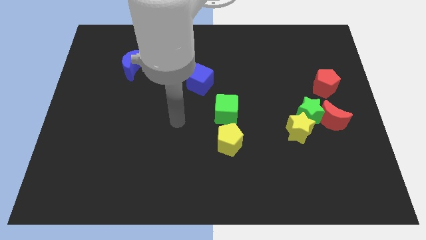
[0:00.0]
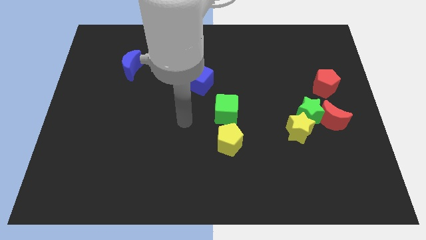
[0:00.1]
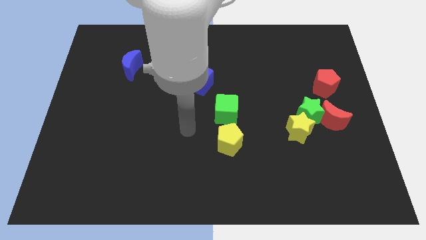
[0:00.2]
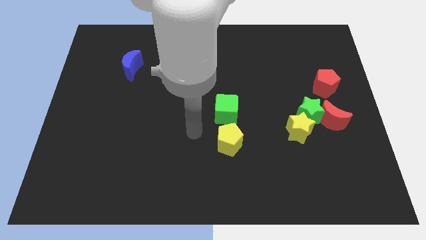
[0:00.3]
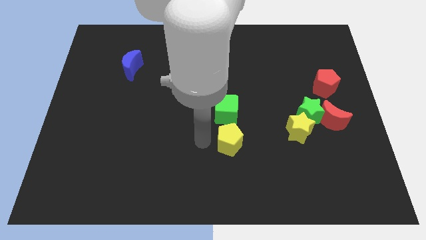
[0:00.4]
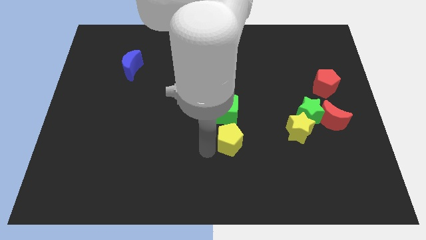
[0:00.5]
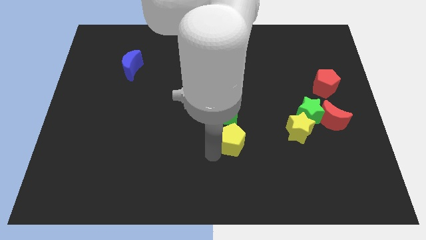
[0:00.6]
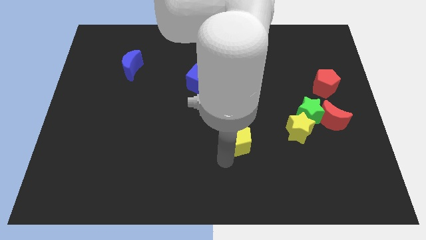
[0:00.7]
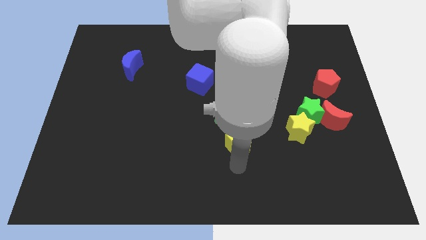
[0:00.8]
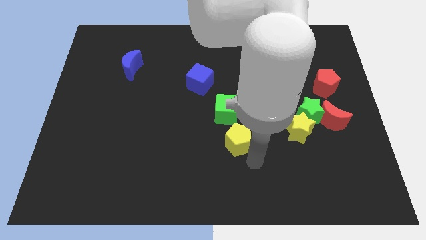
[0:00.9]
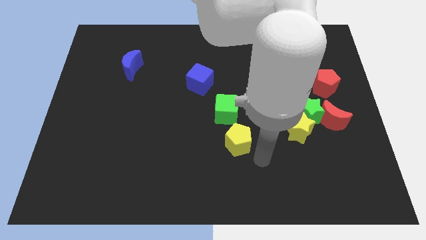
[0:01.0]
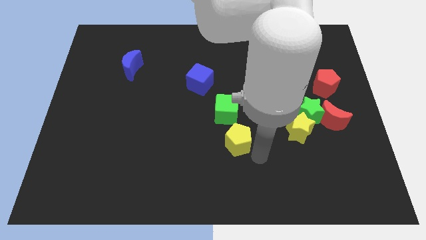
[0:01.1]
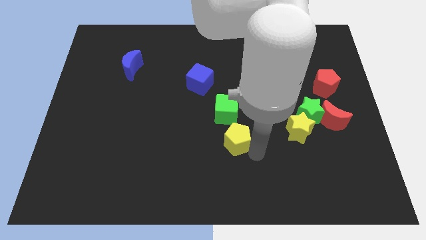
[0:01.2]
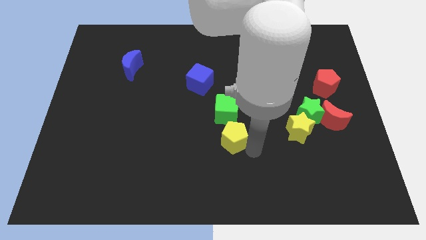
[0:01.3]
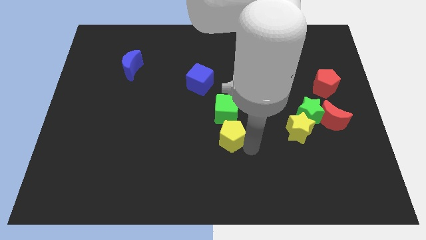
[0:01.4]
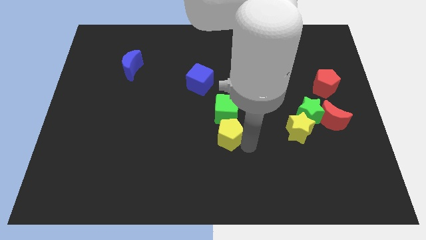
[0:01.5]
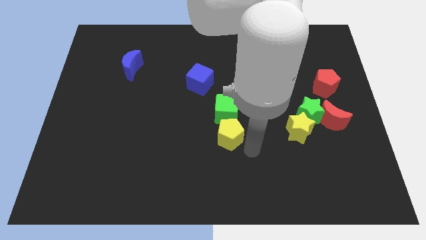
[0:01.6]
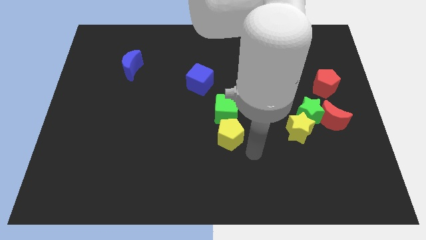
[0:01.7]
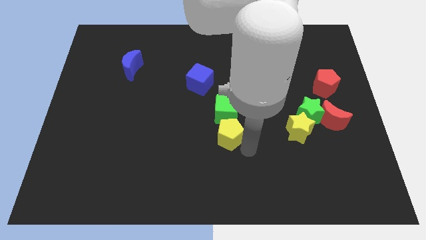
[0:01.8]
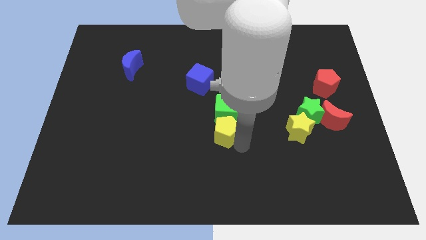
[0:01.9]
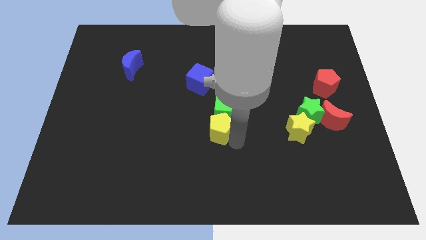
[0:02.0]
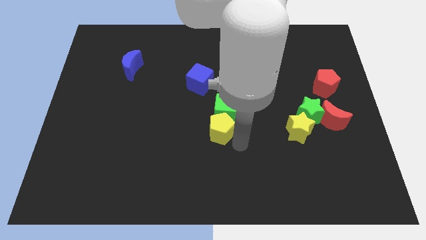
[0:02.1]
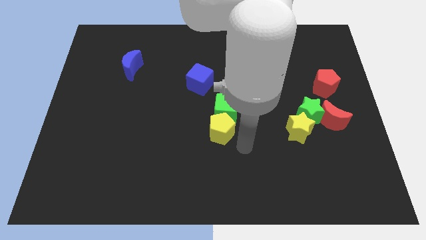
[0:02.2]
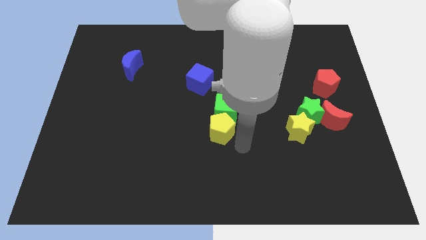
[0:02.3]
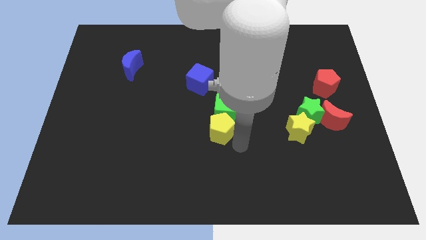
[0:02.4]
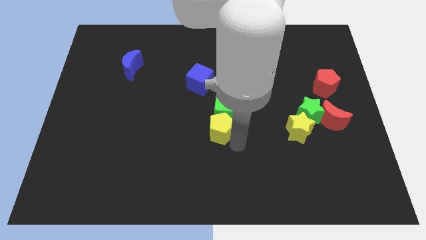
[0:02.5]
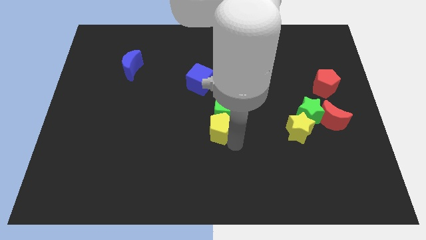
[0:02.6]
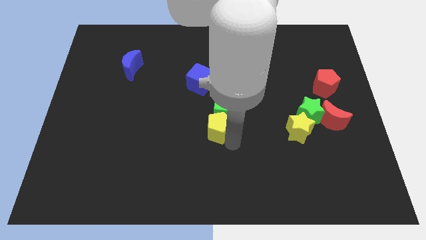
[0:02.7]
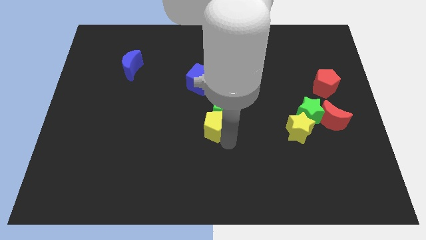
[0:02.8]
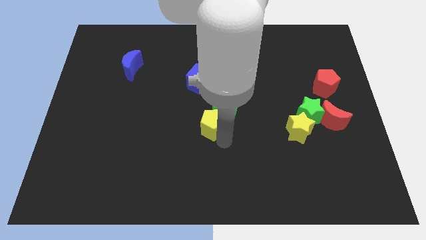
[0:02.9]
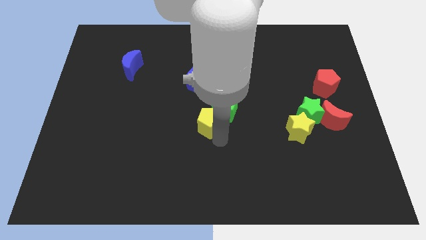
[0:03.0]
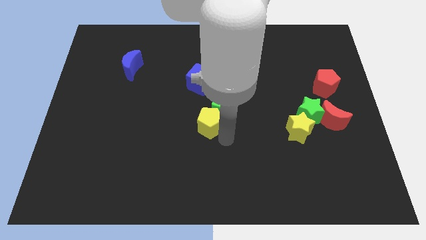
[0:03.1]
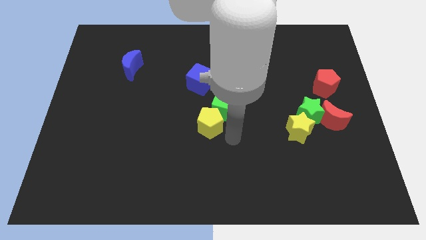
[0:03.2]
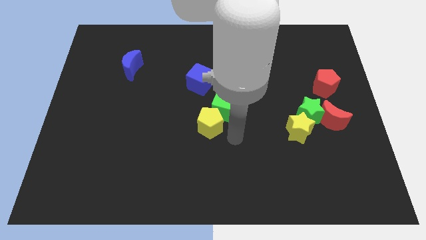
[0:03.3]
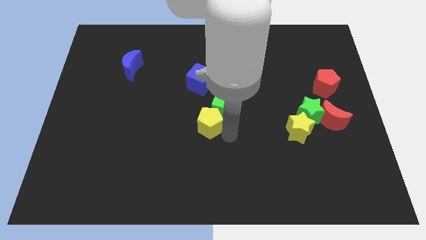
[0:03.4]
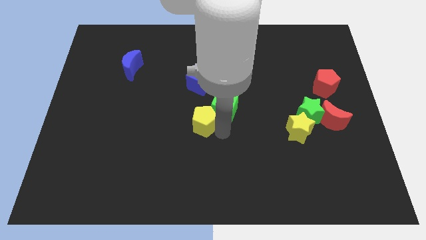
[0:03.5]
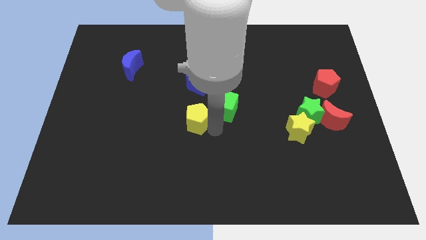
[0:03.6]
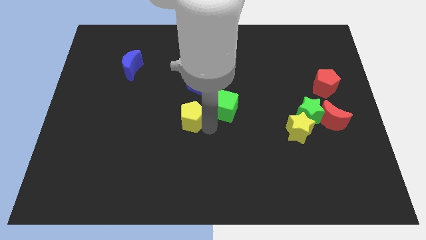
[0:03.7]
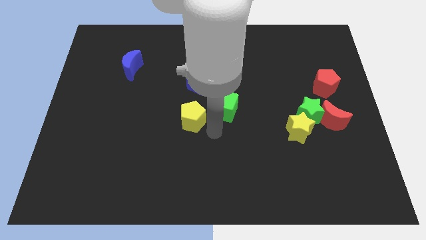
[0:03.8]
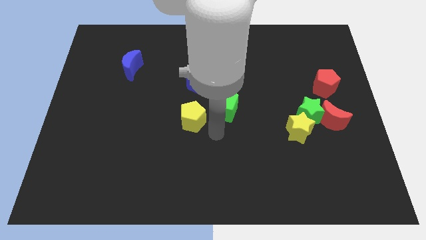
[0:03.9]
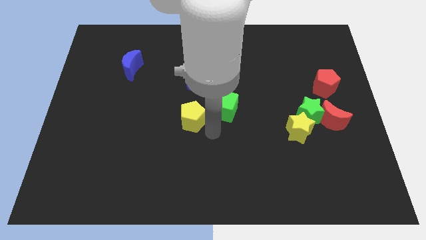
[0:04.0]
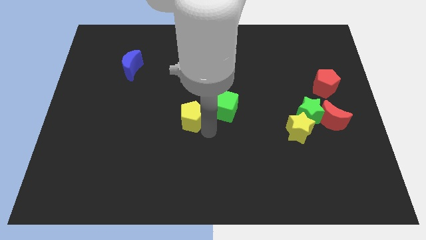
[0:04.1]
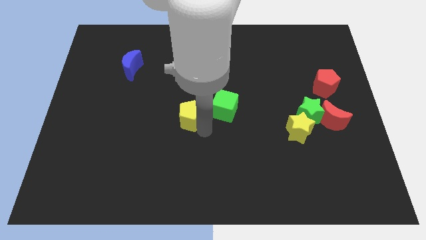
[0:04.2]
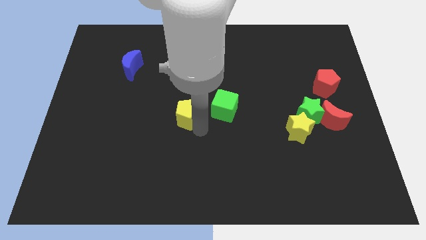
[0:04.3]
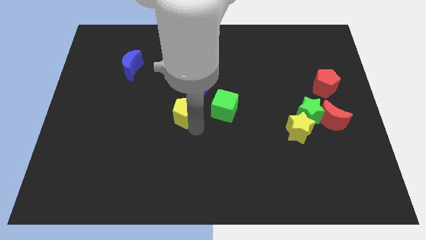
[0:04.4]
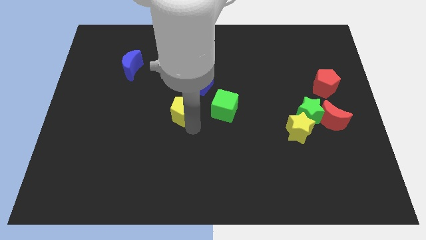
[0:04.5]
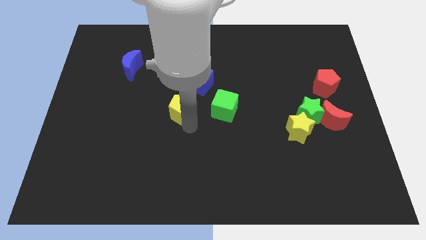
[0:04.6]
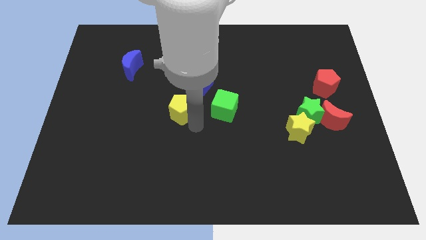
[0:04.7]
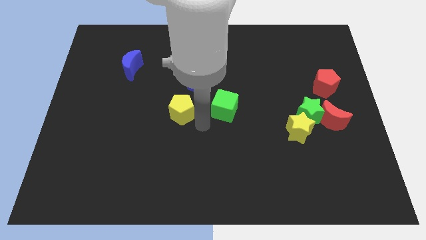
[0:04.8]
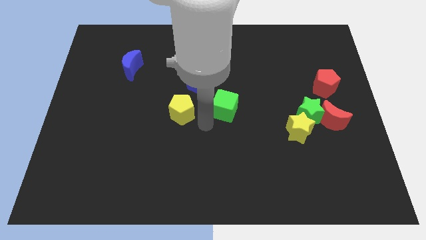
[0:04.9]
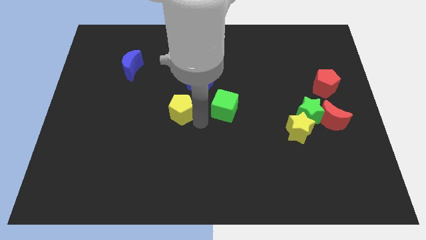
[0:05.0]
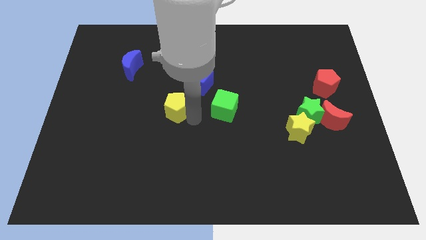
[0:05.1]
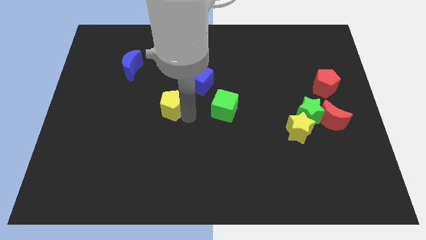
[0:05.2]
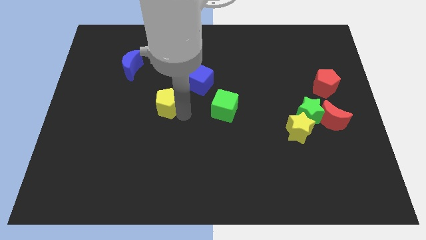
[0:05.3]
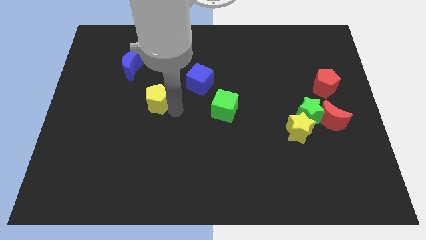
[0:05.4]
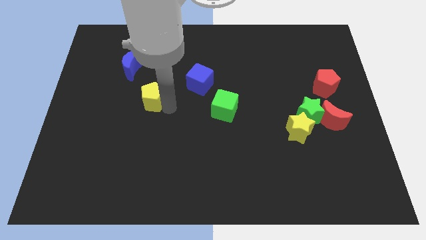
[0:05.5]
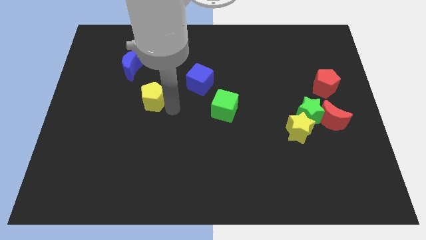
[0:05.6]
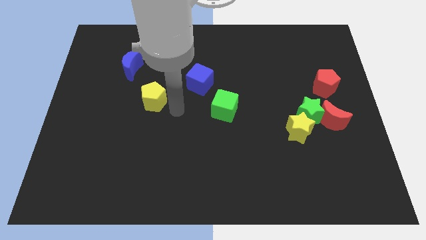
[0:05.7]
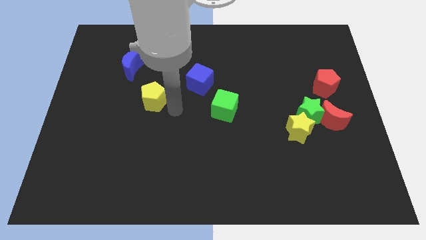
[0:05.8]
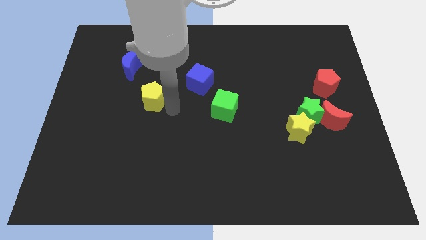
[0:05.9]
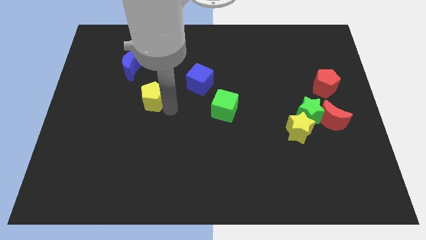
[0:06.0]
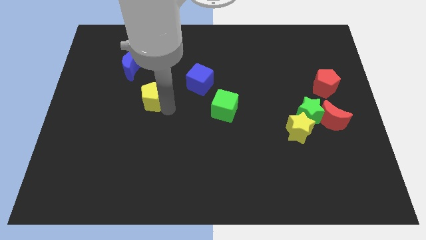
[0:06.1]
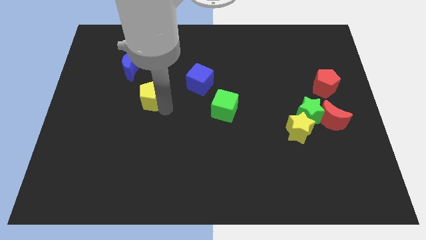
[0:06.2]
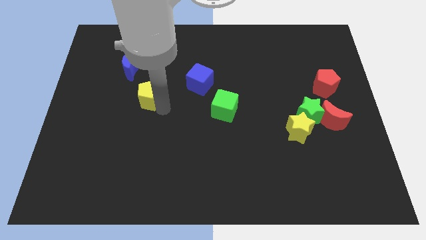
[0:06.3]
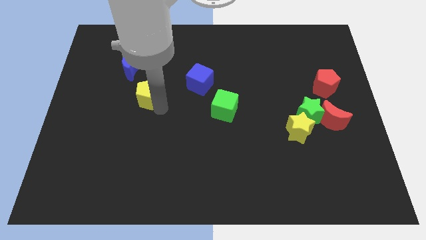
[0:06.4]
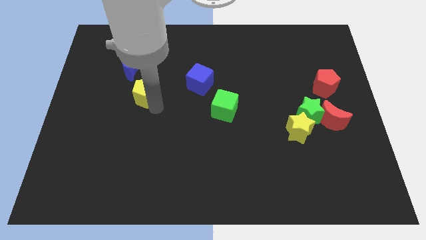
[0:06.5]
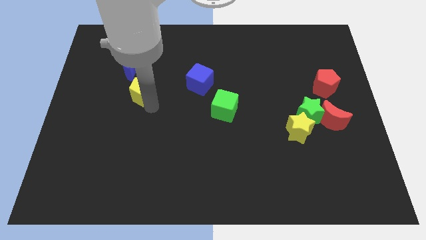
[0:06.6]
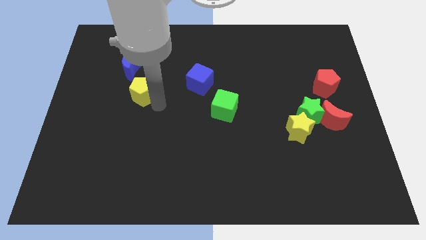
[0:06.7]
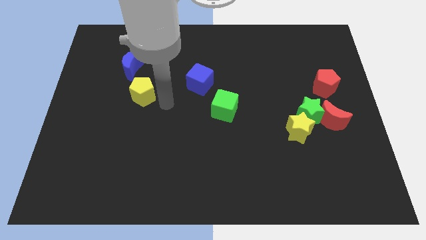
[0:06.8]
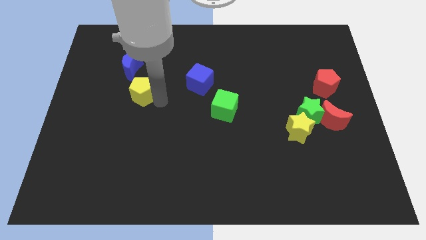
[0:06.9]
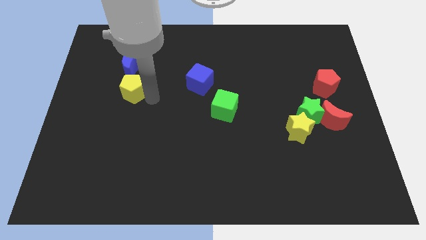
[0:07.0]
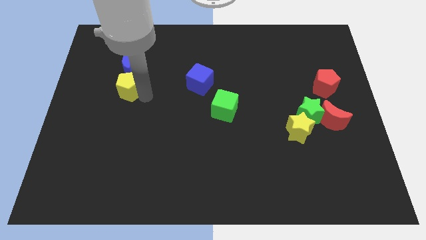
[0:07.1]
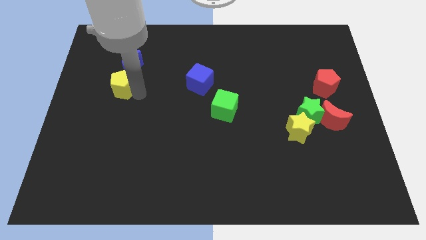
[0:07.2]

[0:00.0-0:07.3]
put the yellow pentagon diagonally down and to the left of the blue moon
